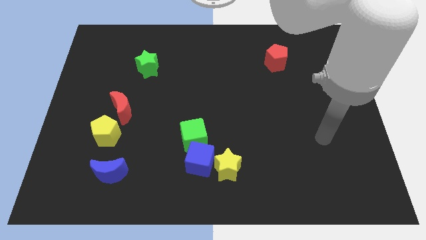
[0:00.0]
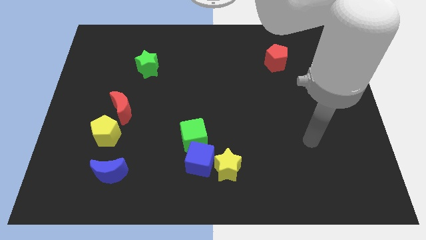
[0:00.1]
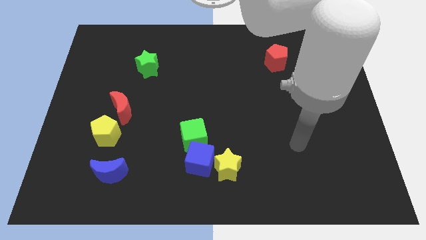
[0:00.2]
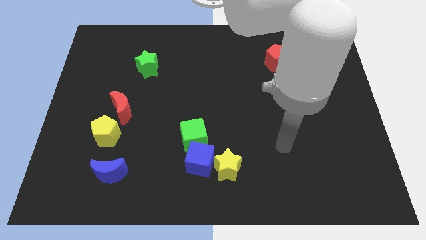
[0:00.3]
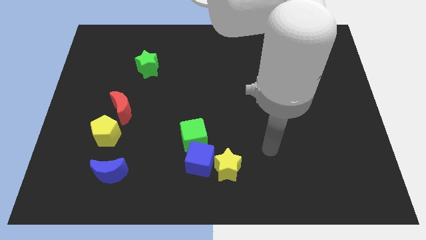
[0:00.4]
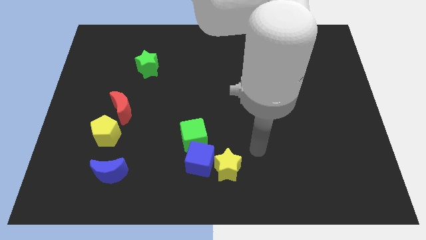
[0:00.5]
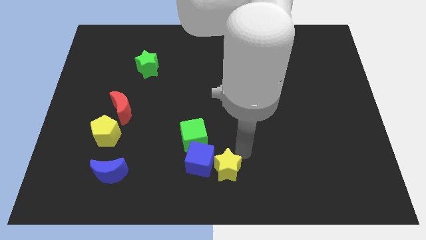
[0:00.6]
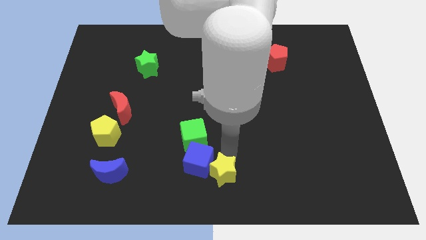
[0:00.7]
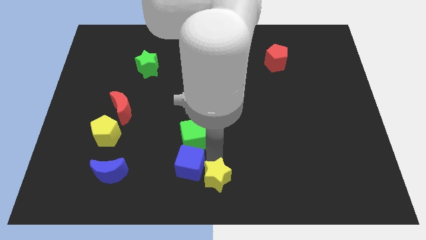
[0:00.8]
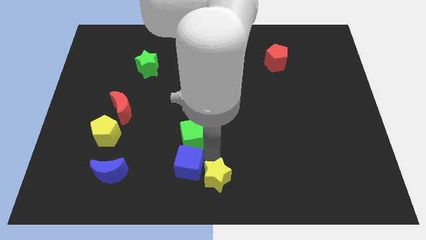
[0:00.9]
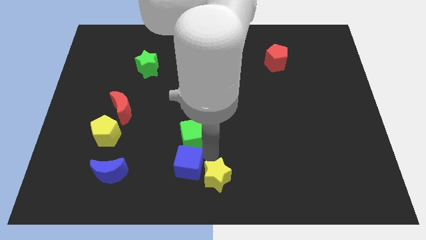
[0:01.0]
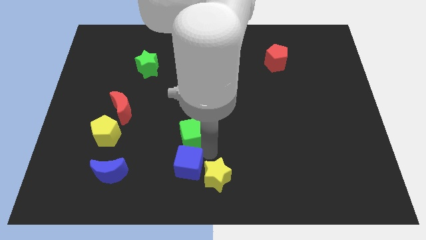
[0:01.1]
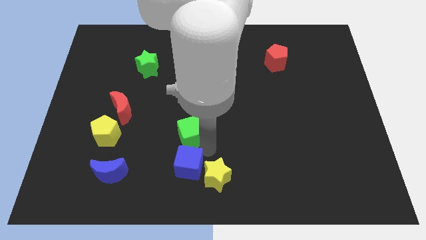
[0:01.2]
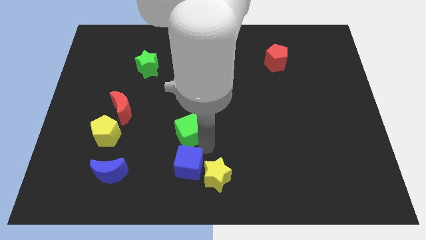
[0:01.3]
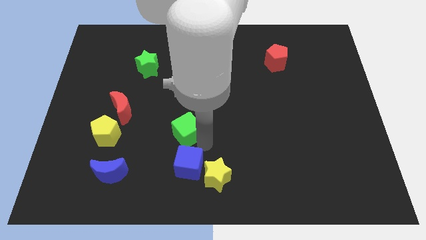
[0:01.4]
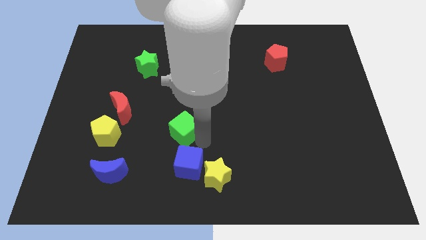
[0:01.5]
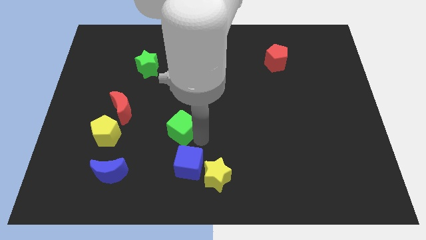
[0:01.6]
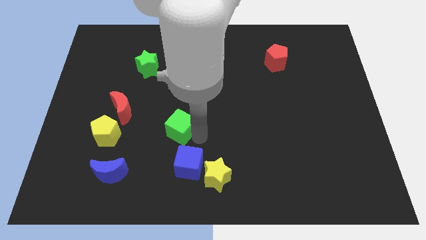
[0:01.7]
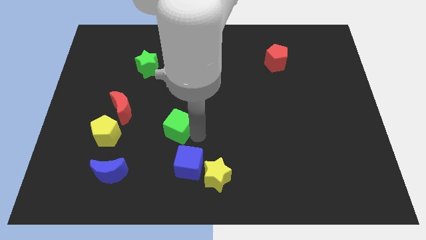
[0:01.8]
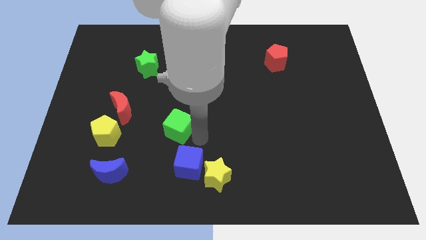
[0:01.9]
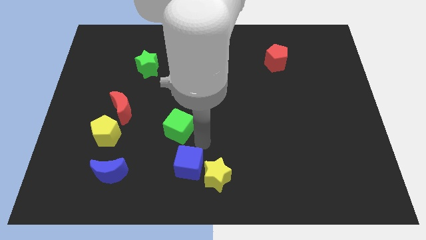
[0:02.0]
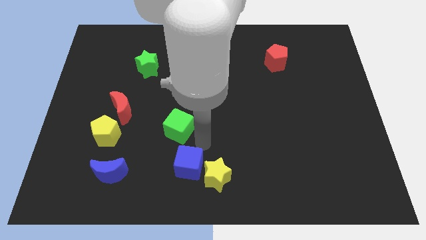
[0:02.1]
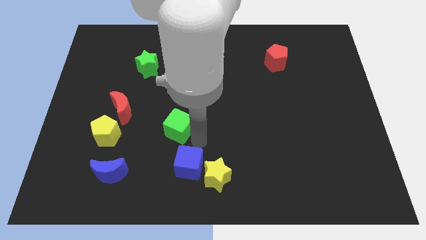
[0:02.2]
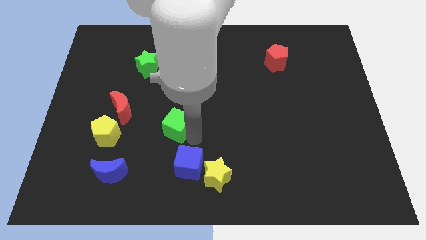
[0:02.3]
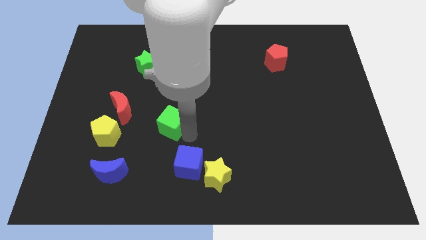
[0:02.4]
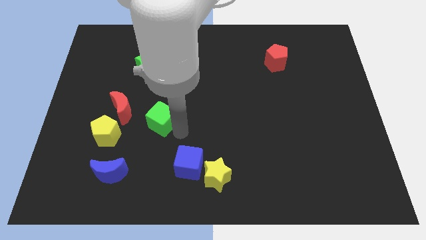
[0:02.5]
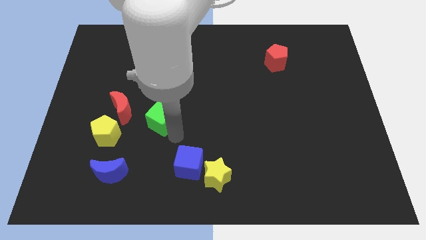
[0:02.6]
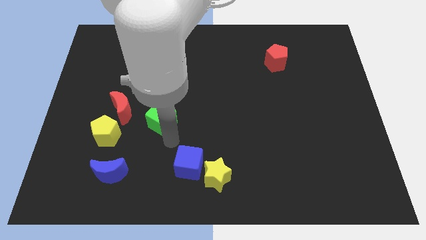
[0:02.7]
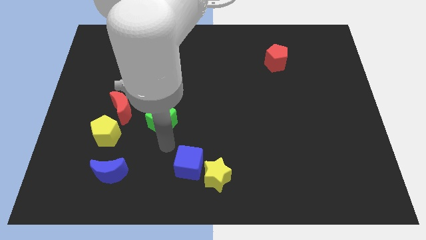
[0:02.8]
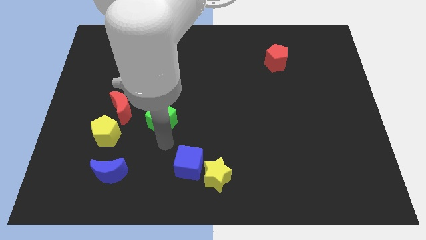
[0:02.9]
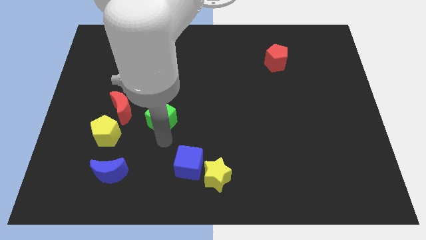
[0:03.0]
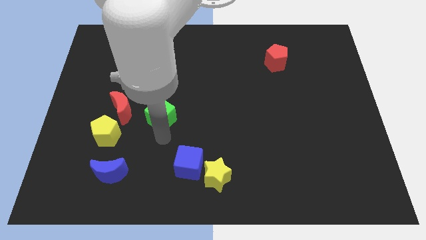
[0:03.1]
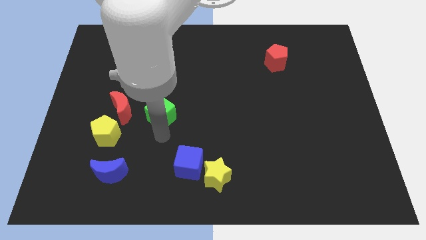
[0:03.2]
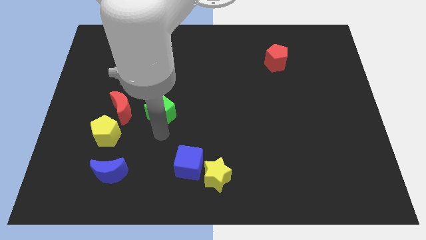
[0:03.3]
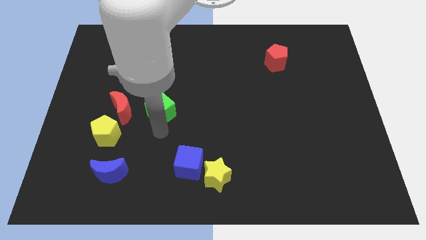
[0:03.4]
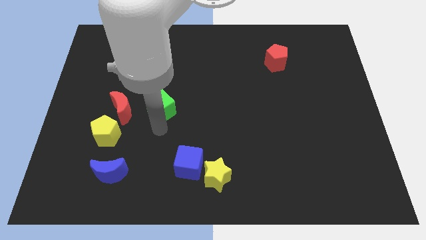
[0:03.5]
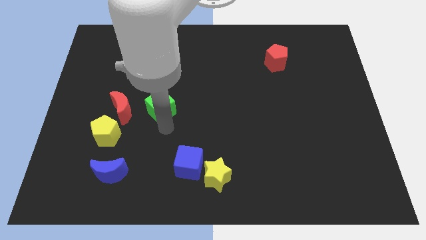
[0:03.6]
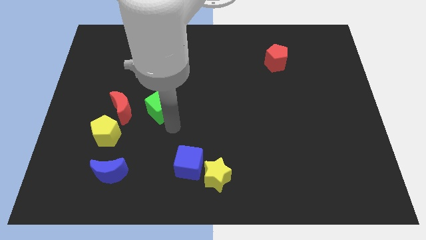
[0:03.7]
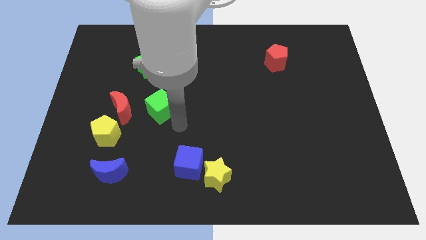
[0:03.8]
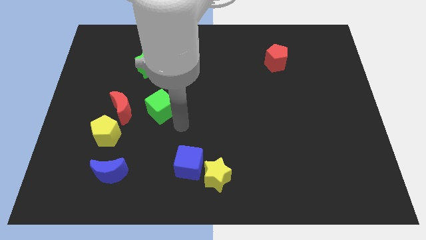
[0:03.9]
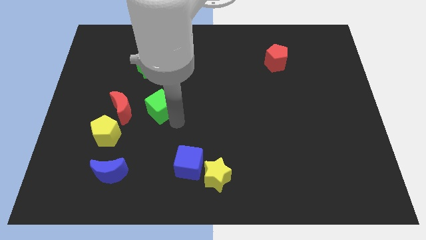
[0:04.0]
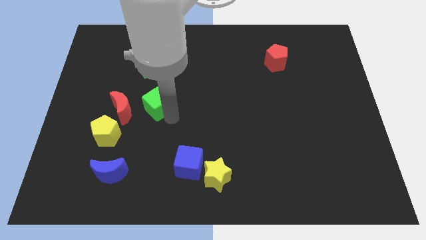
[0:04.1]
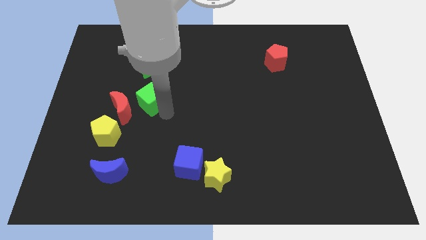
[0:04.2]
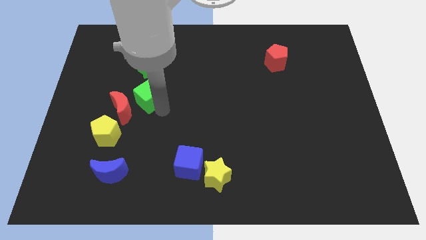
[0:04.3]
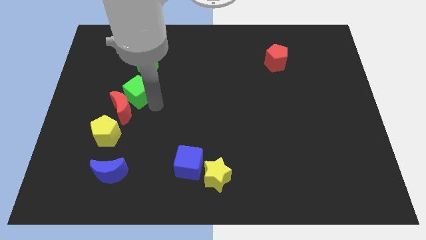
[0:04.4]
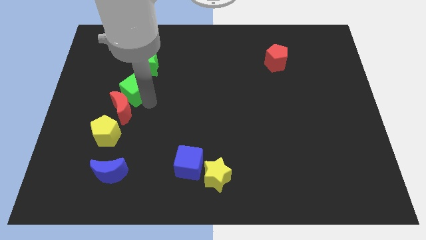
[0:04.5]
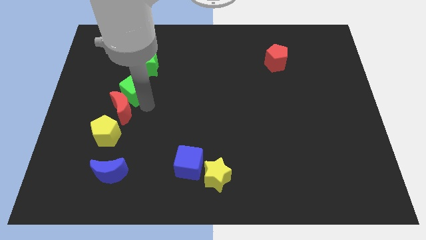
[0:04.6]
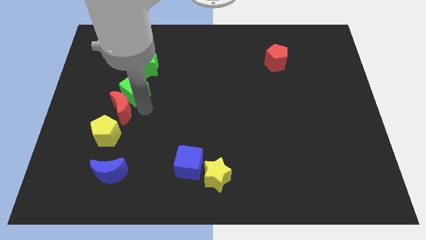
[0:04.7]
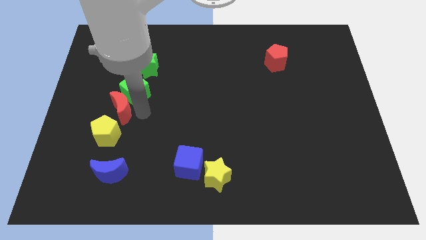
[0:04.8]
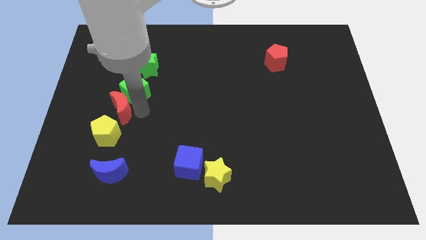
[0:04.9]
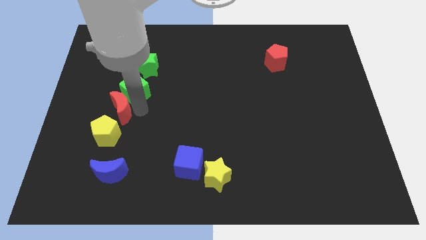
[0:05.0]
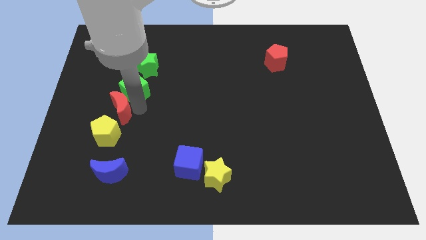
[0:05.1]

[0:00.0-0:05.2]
slide the green cube upwards and to the left

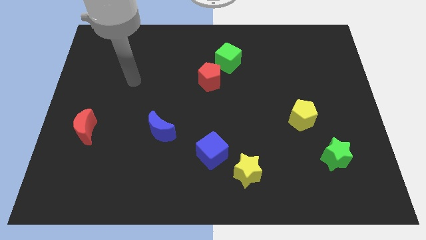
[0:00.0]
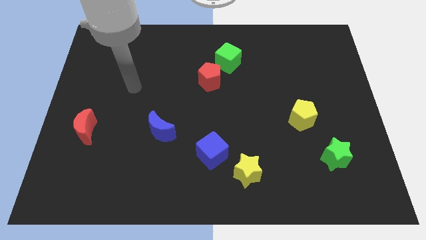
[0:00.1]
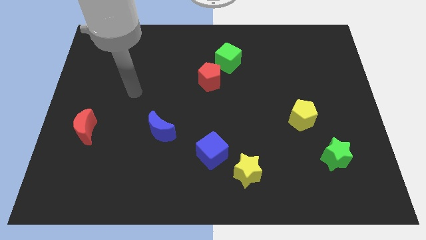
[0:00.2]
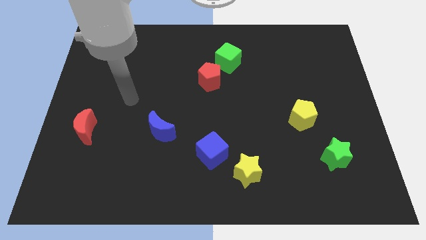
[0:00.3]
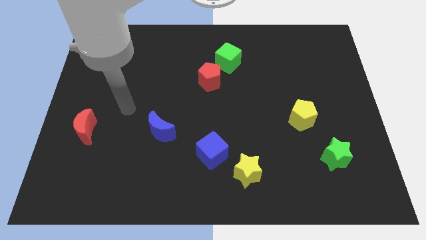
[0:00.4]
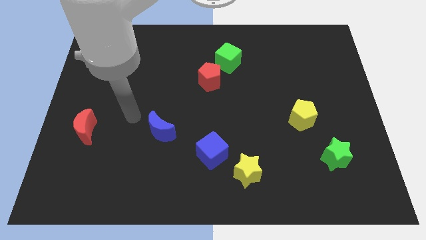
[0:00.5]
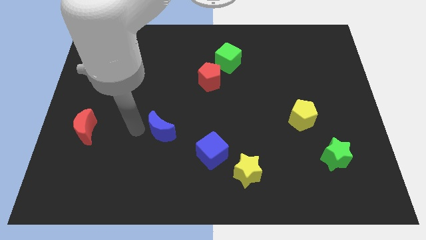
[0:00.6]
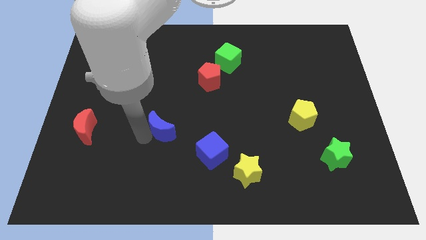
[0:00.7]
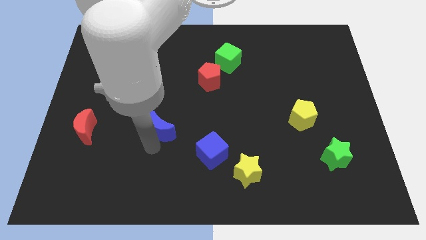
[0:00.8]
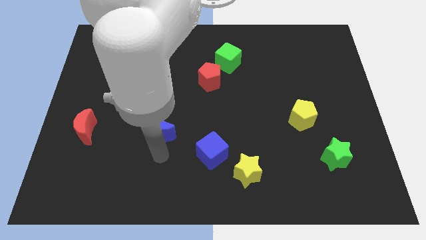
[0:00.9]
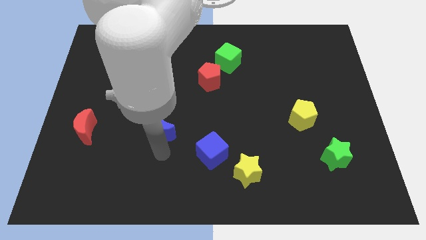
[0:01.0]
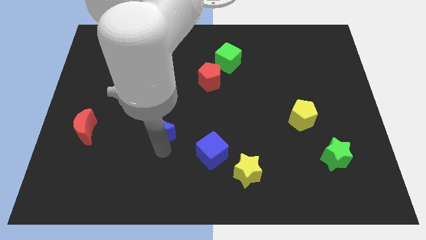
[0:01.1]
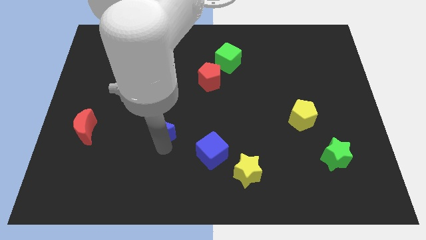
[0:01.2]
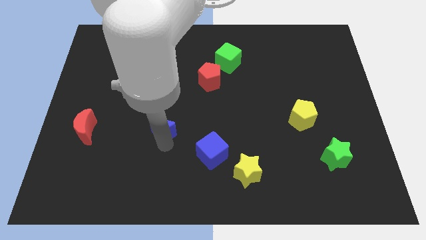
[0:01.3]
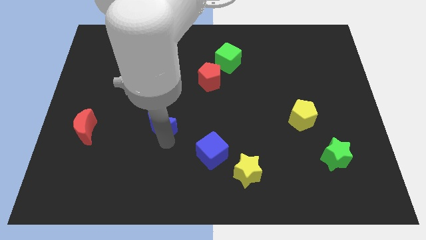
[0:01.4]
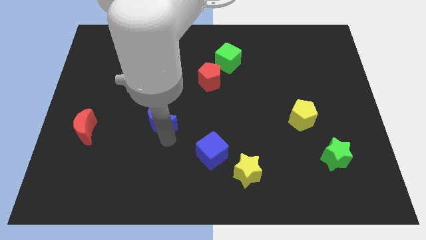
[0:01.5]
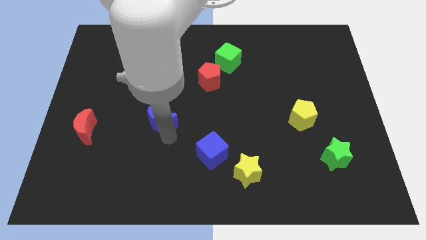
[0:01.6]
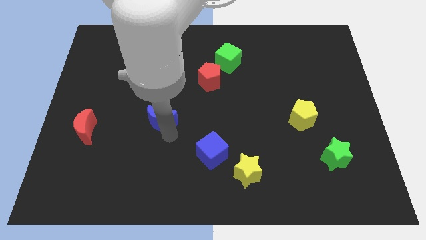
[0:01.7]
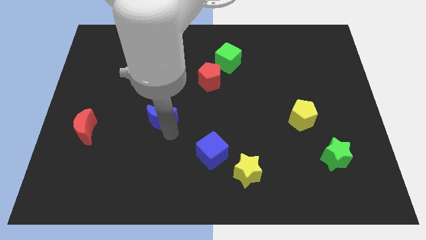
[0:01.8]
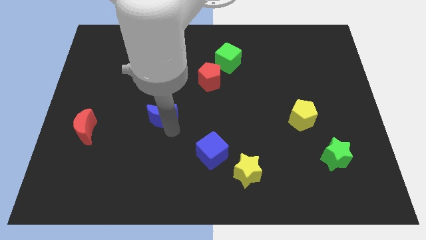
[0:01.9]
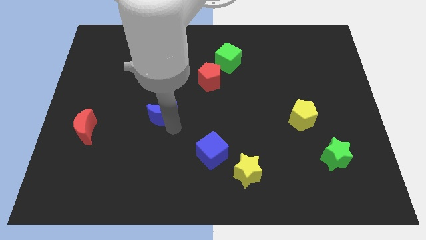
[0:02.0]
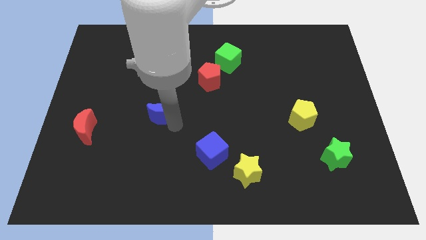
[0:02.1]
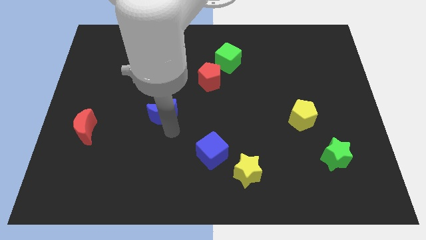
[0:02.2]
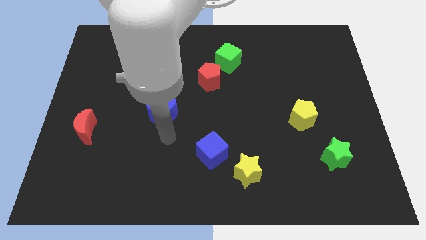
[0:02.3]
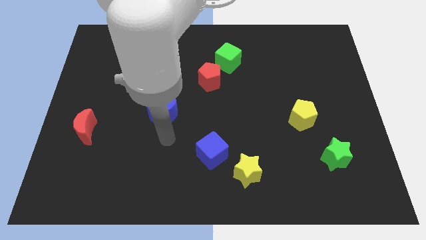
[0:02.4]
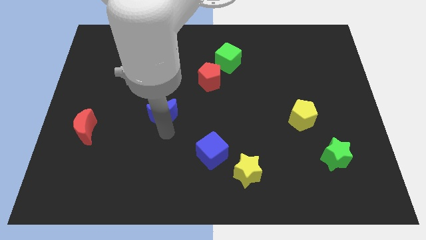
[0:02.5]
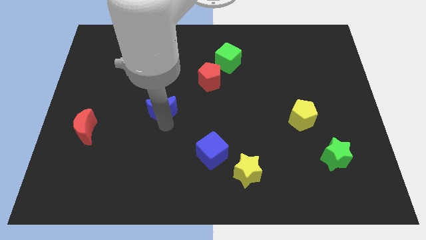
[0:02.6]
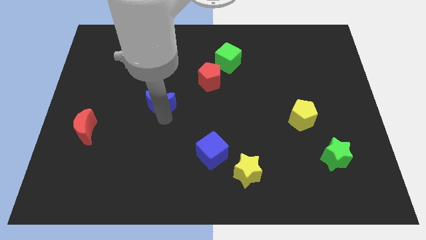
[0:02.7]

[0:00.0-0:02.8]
move the blue moon upwards a bit
